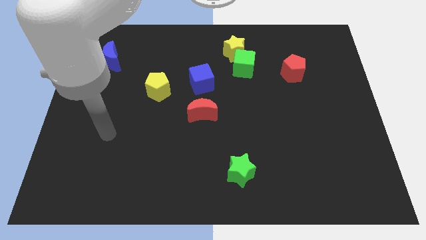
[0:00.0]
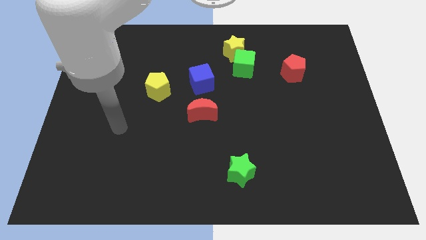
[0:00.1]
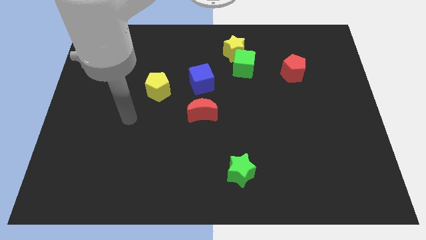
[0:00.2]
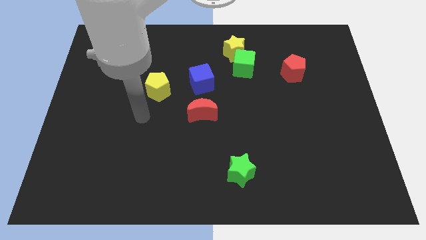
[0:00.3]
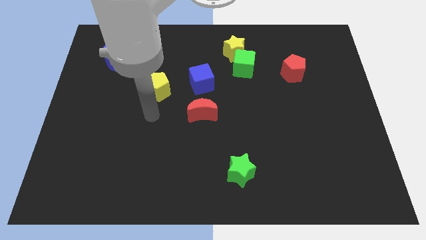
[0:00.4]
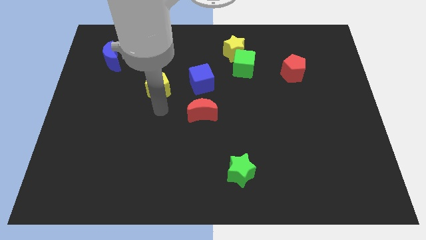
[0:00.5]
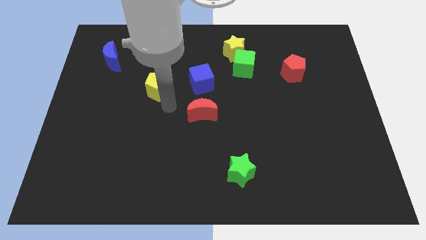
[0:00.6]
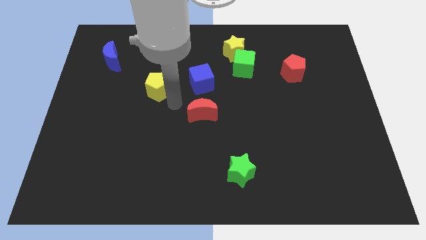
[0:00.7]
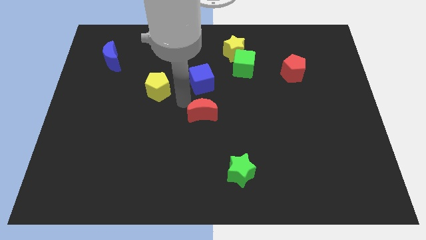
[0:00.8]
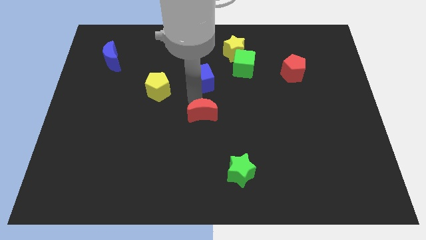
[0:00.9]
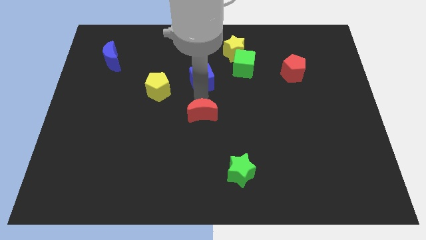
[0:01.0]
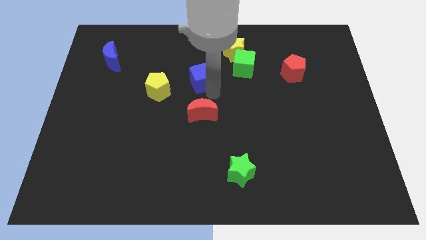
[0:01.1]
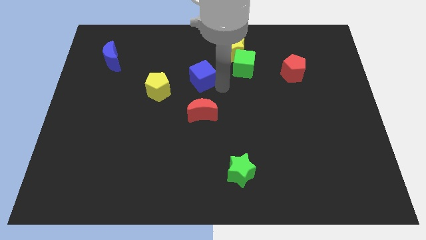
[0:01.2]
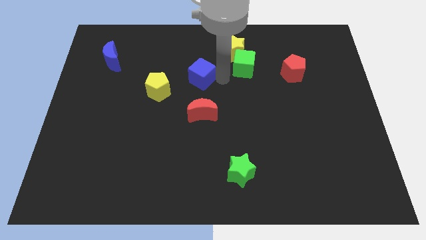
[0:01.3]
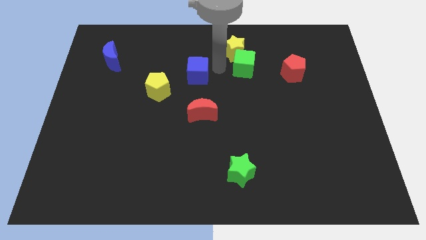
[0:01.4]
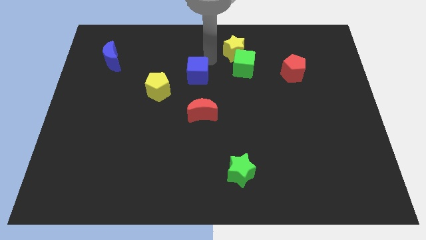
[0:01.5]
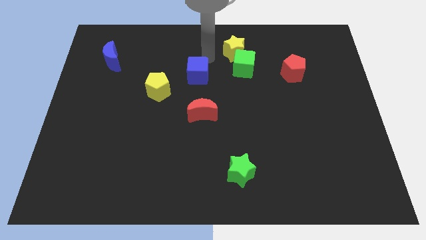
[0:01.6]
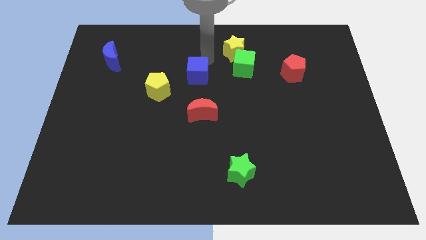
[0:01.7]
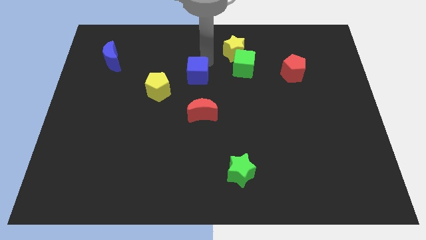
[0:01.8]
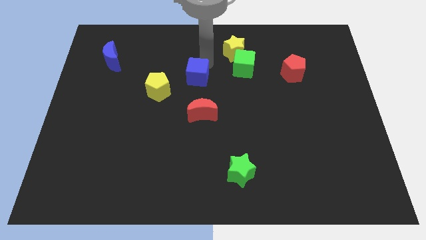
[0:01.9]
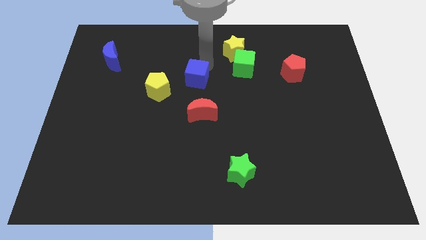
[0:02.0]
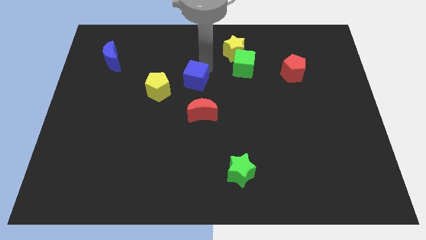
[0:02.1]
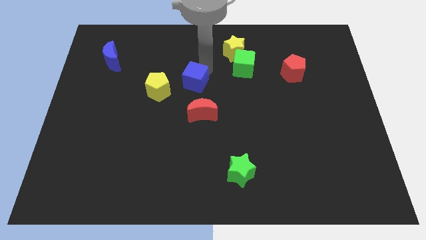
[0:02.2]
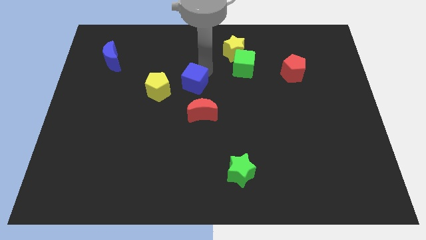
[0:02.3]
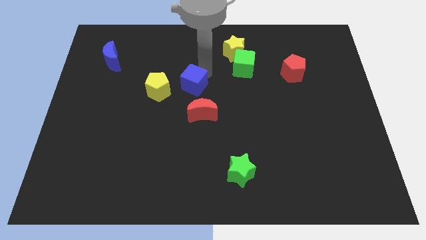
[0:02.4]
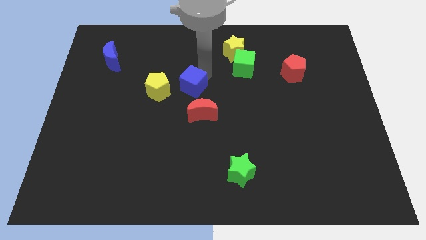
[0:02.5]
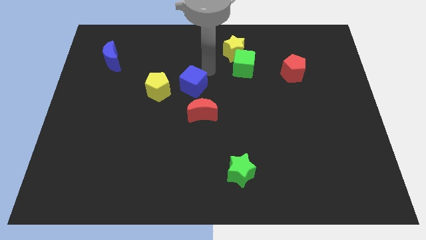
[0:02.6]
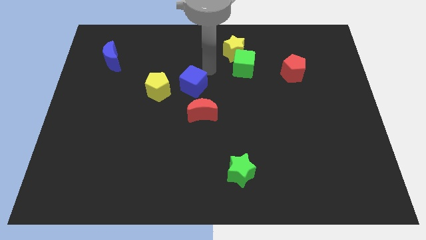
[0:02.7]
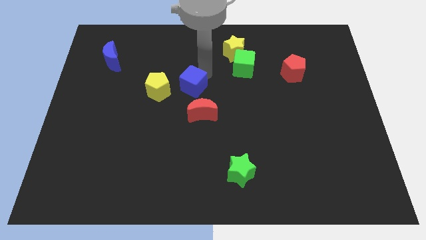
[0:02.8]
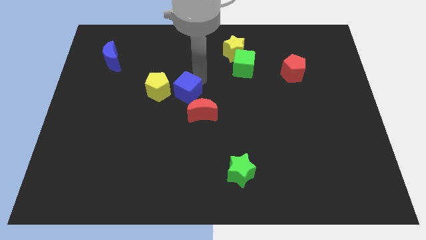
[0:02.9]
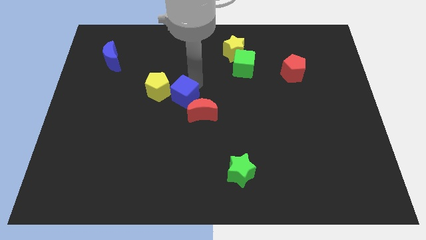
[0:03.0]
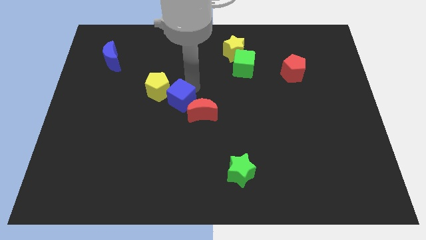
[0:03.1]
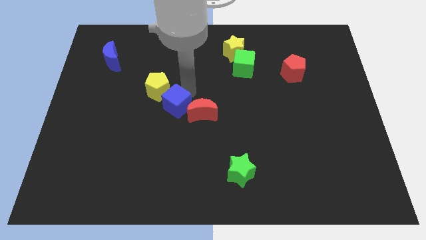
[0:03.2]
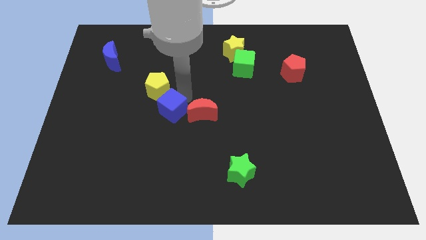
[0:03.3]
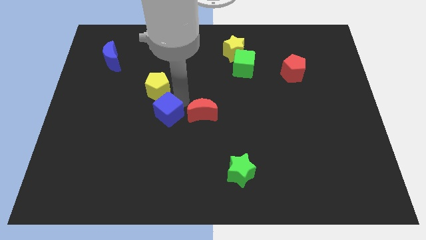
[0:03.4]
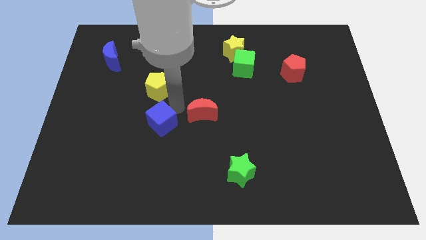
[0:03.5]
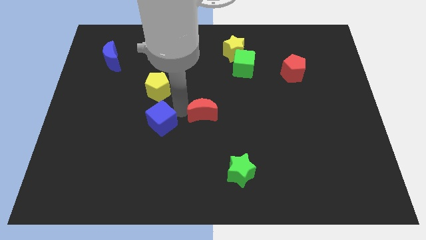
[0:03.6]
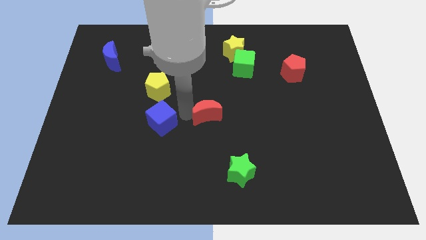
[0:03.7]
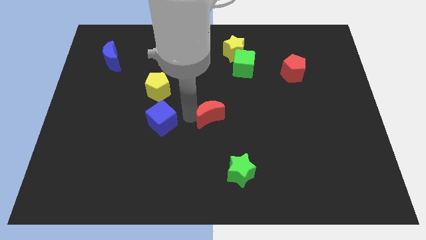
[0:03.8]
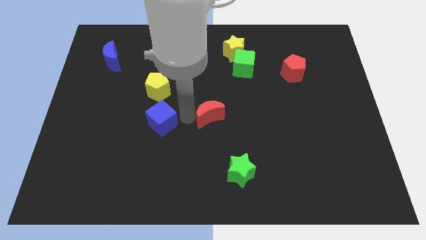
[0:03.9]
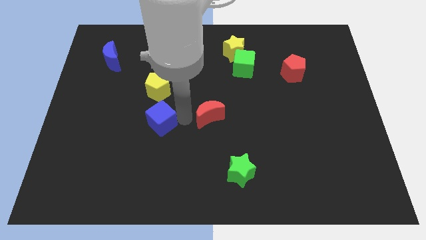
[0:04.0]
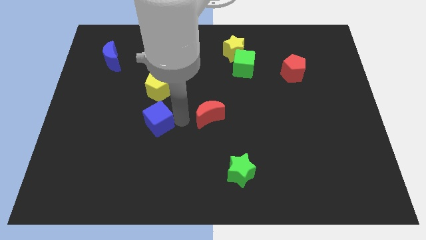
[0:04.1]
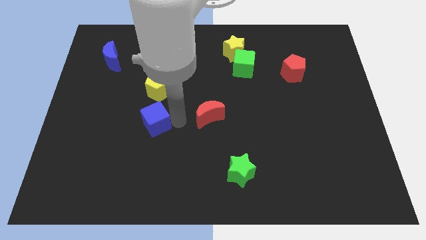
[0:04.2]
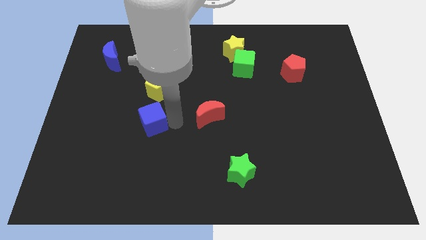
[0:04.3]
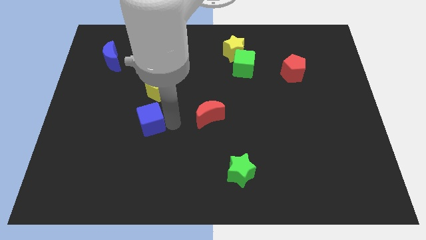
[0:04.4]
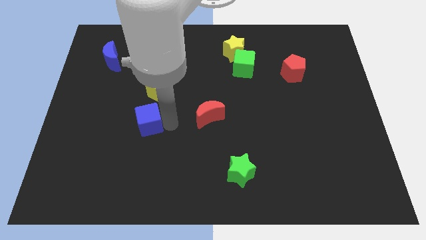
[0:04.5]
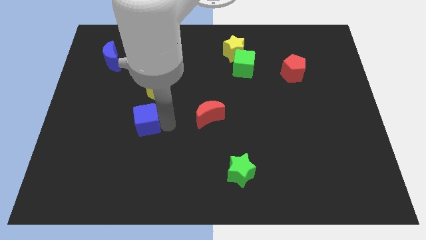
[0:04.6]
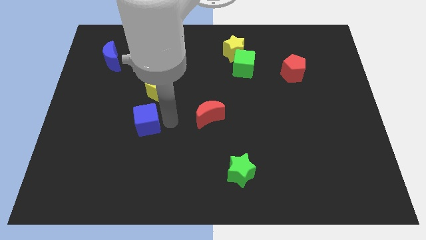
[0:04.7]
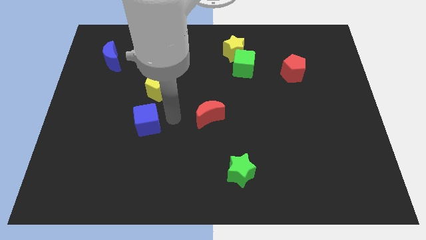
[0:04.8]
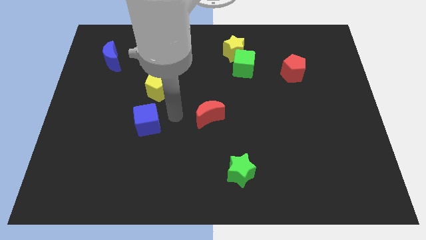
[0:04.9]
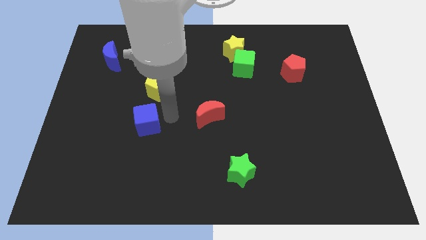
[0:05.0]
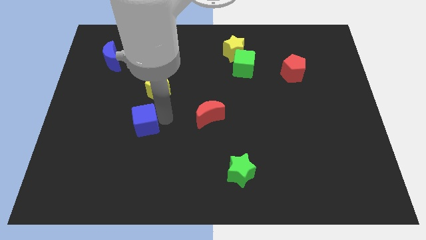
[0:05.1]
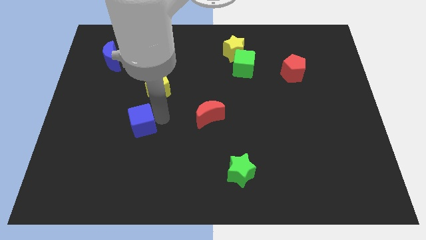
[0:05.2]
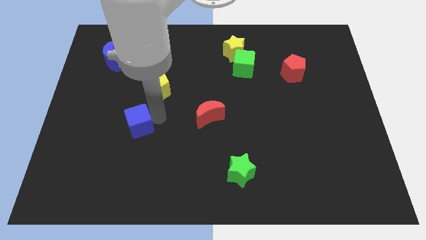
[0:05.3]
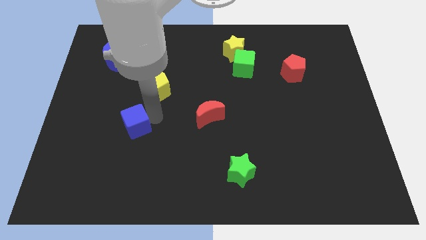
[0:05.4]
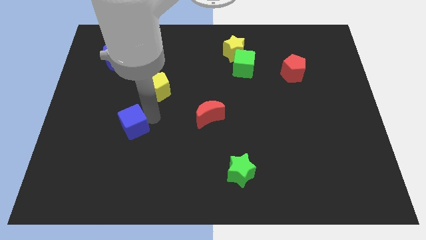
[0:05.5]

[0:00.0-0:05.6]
move the blue cube downwards and left

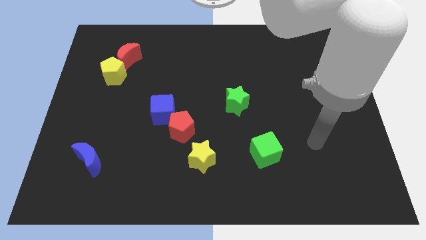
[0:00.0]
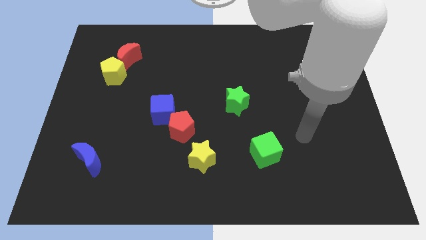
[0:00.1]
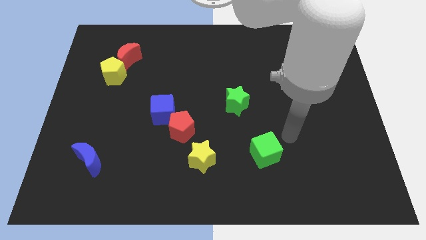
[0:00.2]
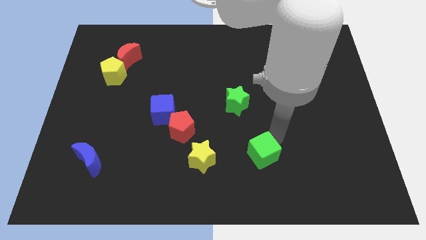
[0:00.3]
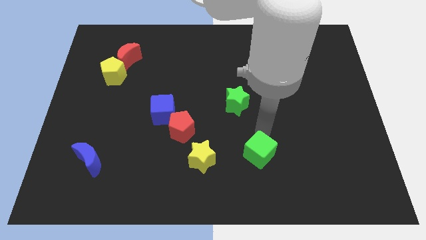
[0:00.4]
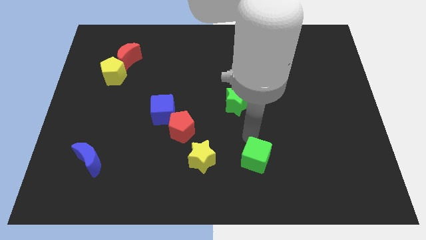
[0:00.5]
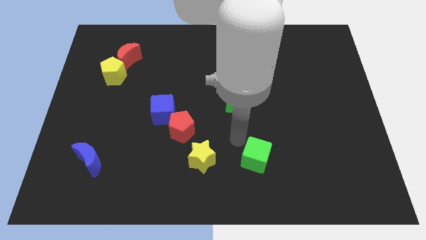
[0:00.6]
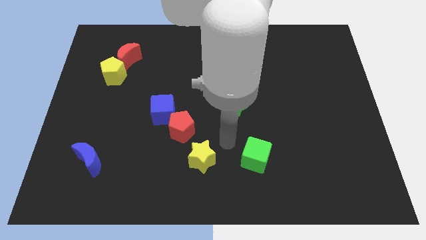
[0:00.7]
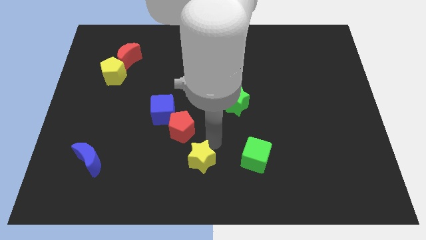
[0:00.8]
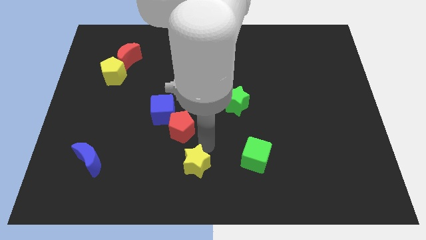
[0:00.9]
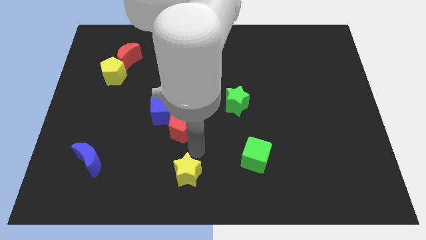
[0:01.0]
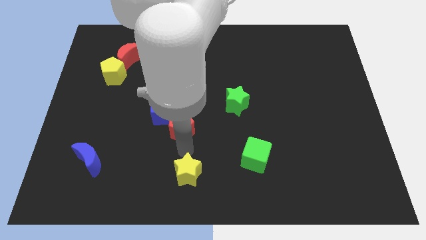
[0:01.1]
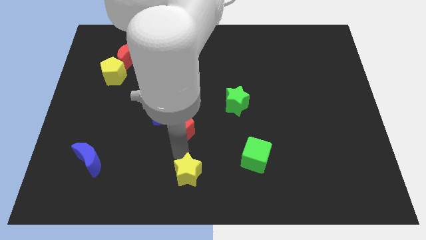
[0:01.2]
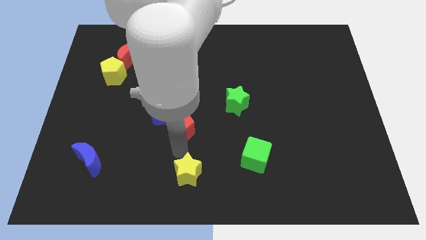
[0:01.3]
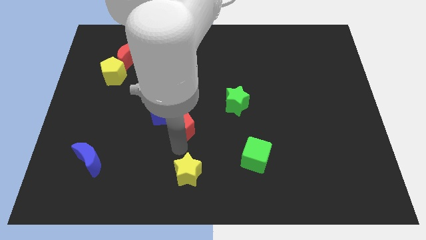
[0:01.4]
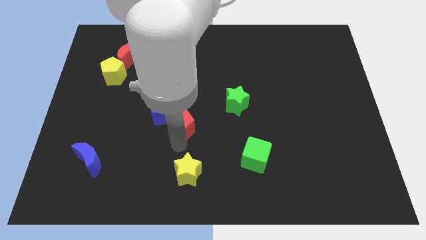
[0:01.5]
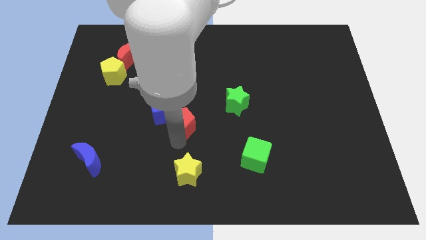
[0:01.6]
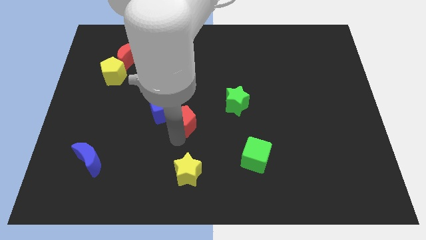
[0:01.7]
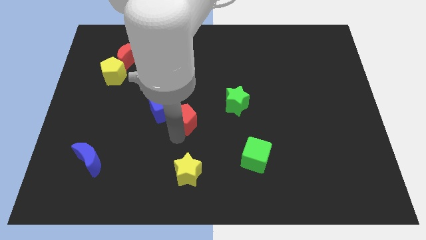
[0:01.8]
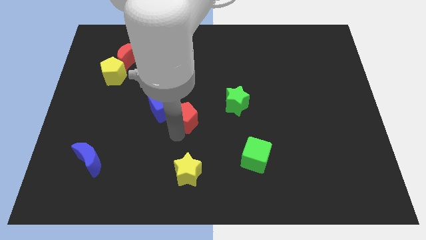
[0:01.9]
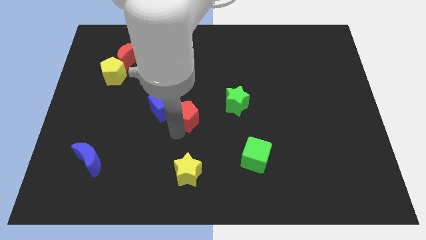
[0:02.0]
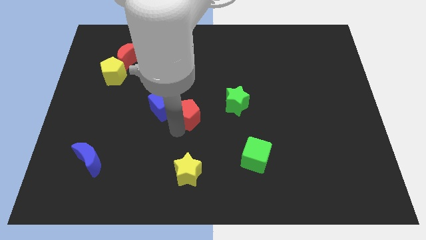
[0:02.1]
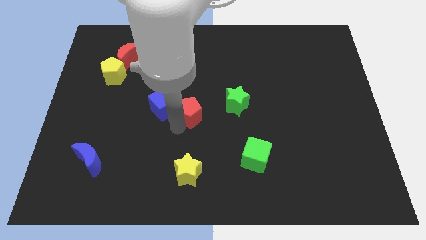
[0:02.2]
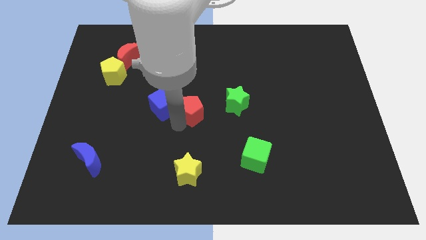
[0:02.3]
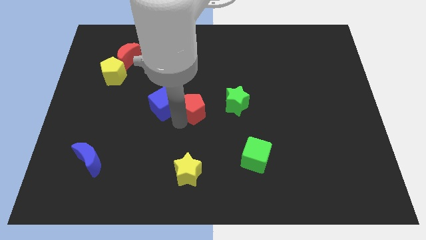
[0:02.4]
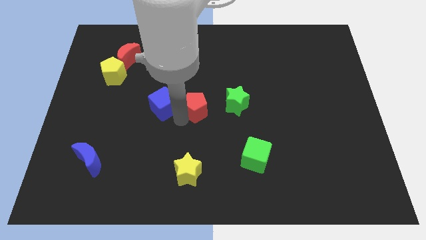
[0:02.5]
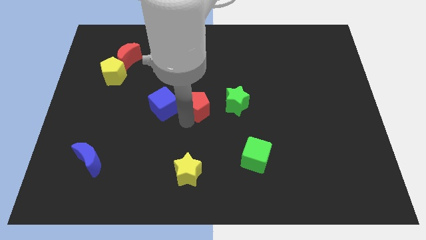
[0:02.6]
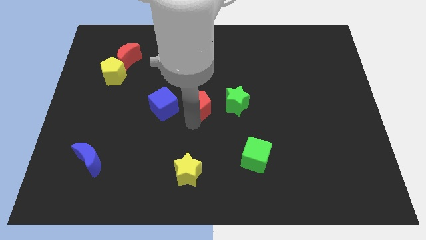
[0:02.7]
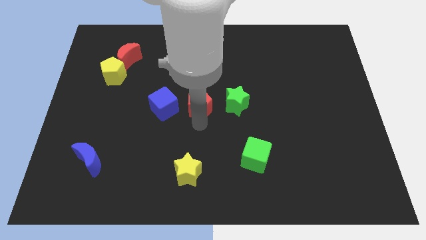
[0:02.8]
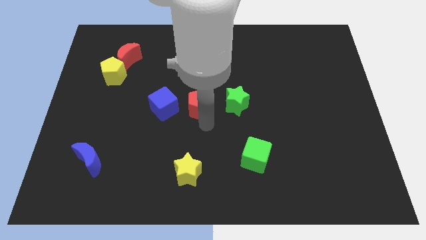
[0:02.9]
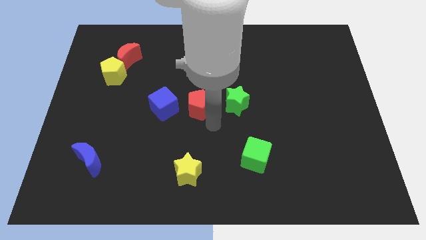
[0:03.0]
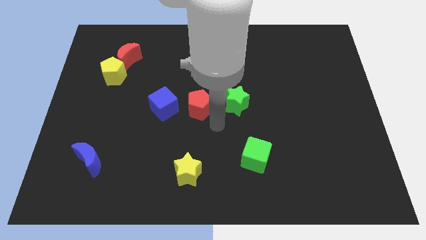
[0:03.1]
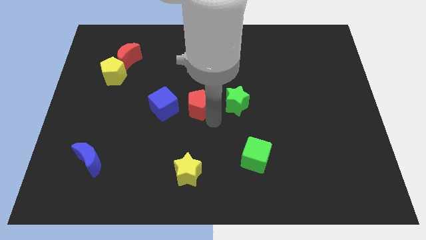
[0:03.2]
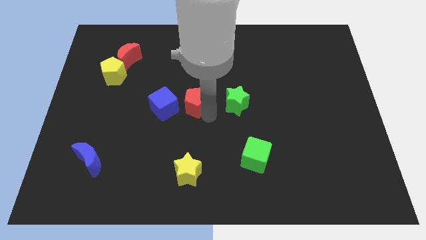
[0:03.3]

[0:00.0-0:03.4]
push the red pentagon up a bit
